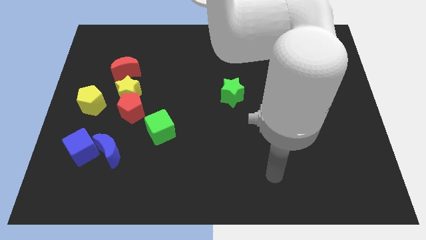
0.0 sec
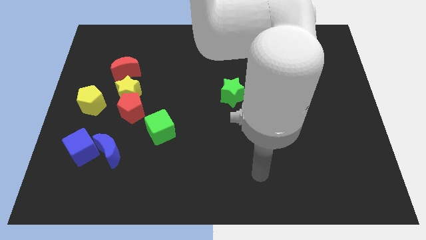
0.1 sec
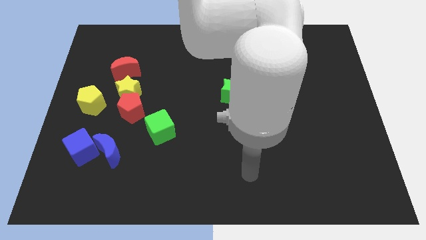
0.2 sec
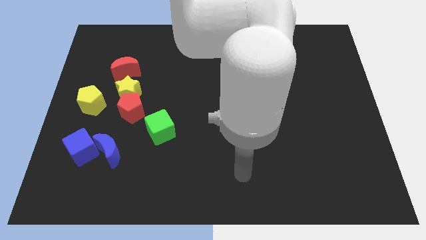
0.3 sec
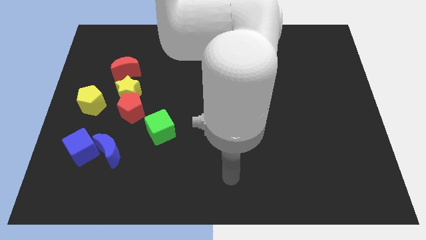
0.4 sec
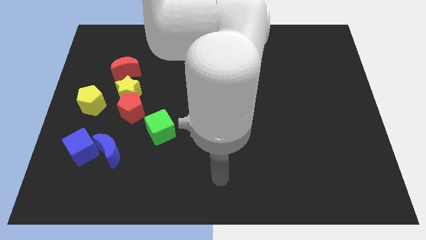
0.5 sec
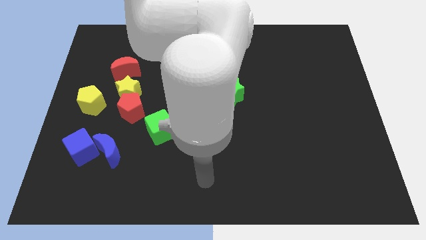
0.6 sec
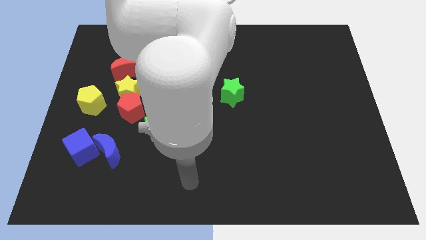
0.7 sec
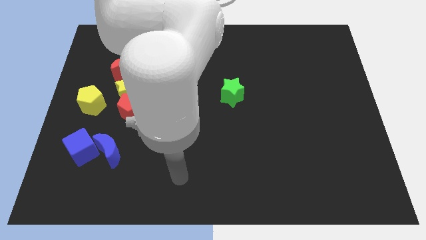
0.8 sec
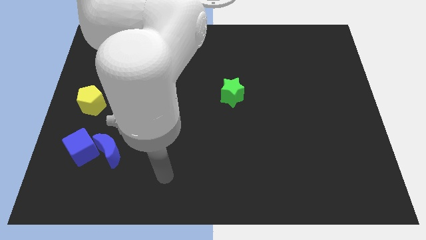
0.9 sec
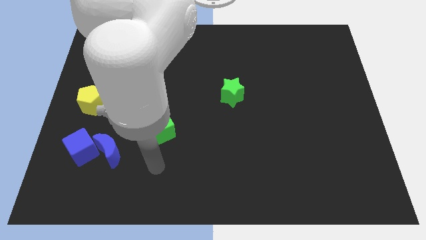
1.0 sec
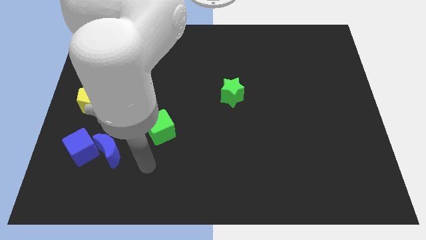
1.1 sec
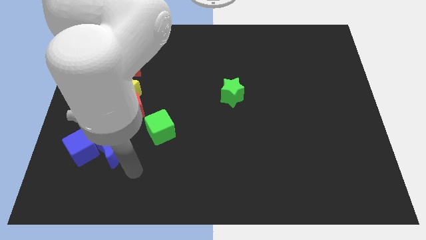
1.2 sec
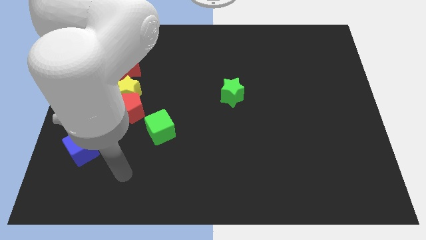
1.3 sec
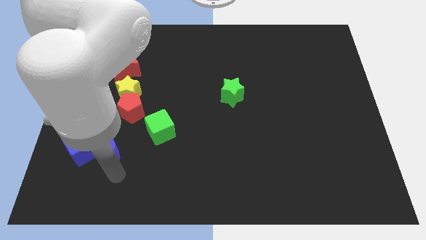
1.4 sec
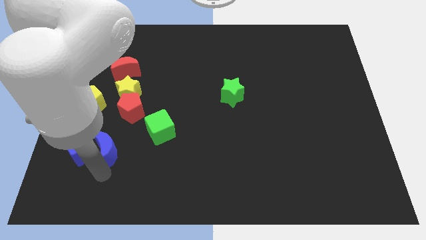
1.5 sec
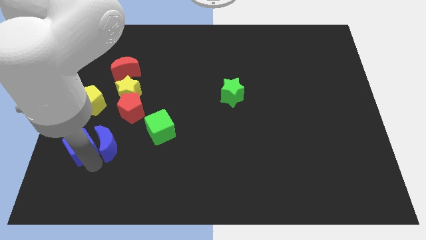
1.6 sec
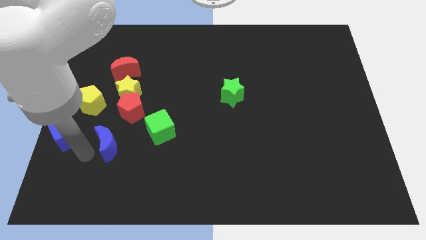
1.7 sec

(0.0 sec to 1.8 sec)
move the blue moon away from the blue cube

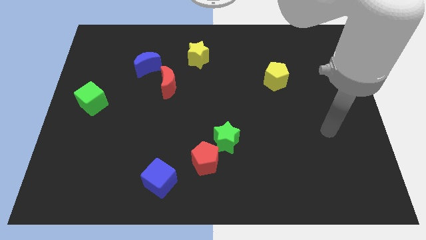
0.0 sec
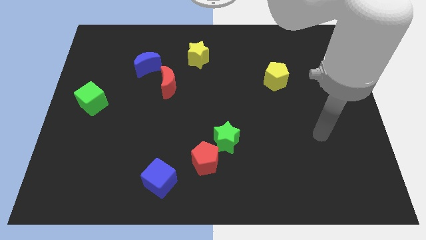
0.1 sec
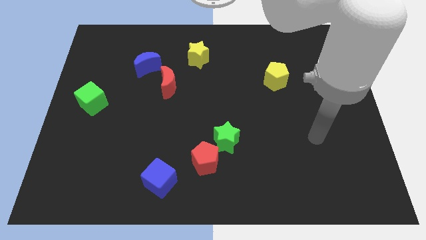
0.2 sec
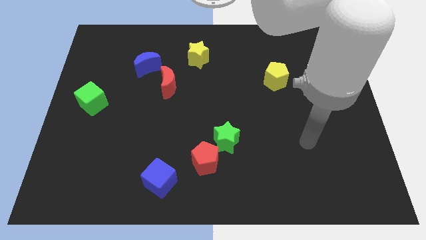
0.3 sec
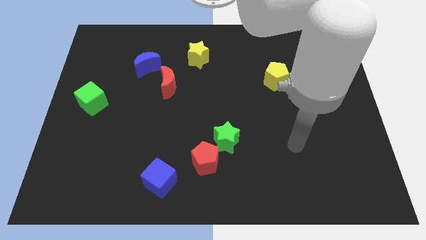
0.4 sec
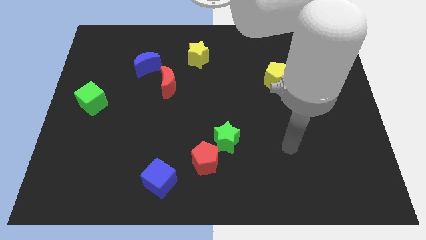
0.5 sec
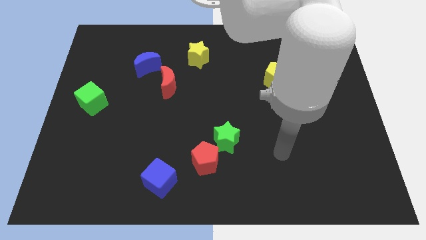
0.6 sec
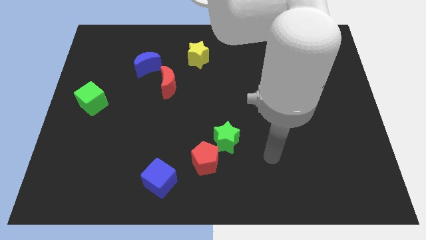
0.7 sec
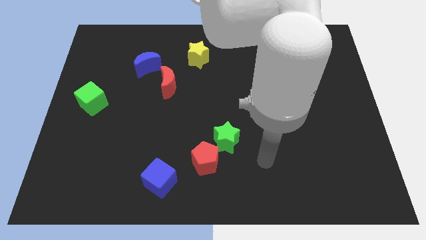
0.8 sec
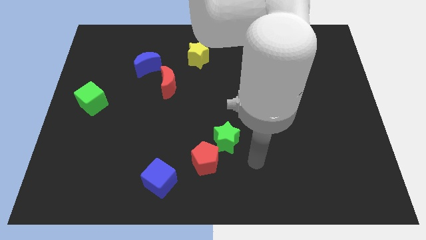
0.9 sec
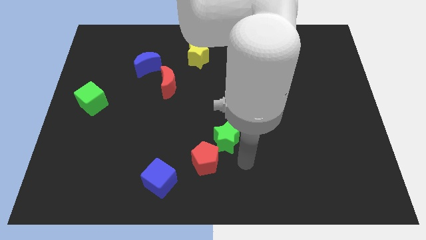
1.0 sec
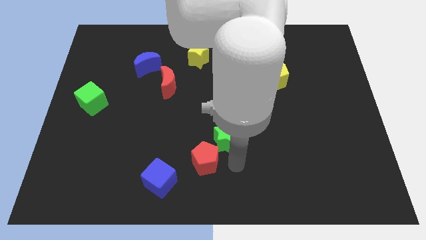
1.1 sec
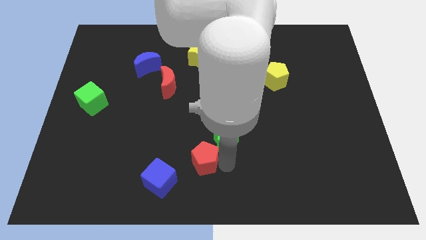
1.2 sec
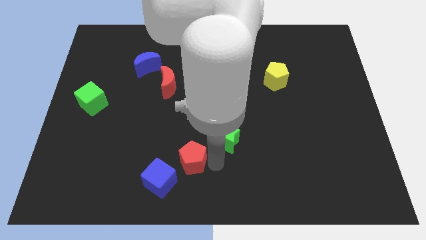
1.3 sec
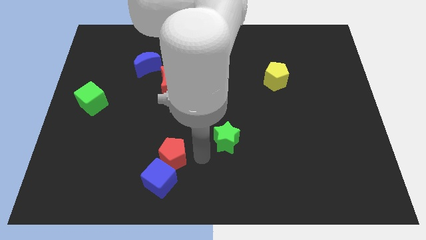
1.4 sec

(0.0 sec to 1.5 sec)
pull the green star apart from the red pentagon

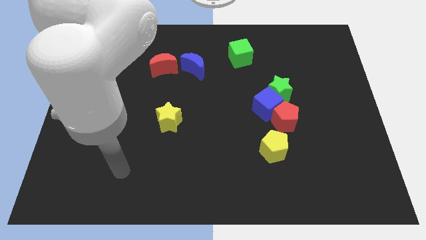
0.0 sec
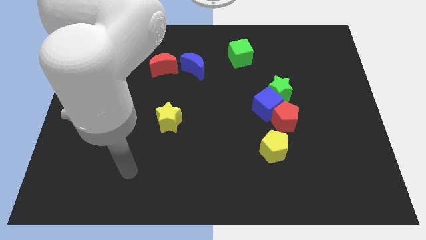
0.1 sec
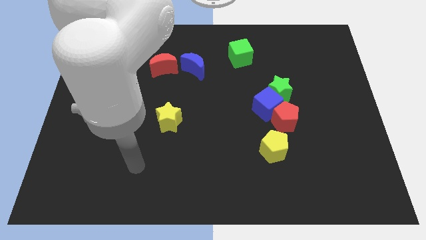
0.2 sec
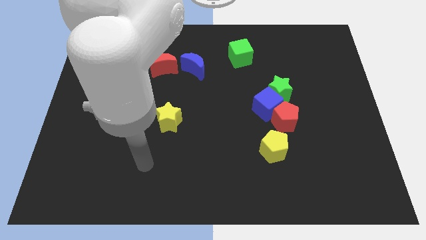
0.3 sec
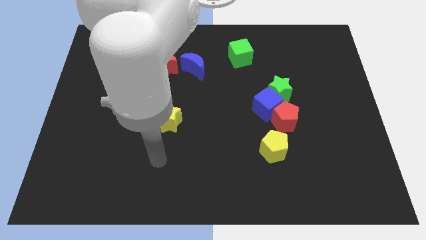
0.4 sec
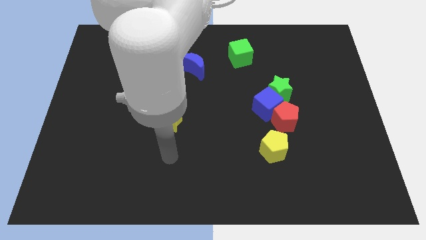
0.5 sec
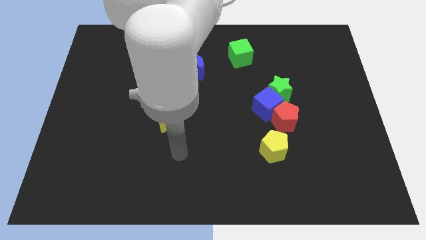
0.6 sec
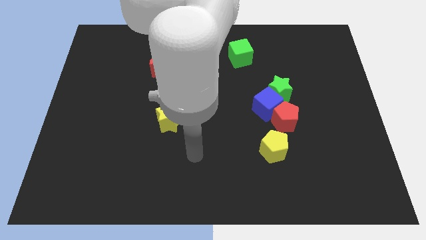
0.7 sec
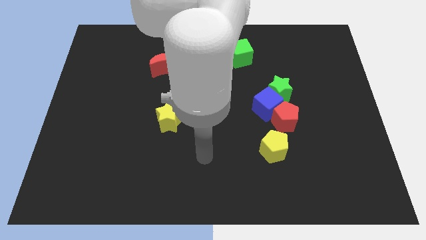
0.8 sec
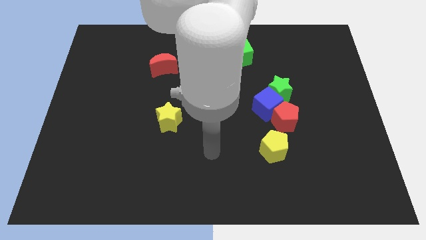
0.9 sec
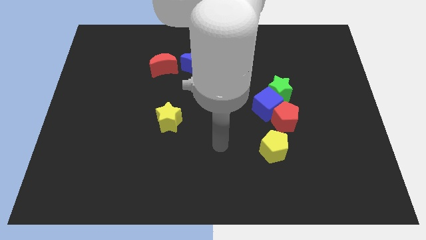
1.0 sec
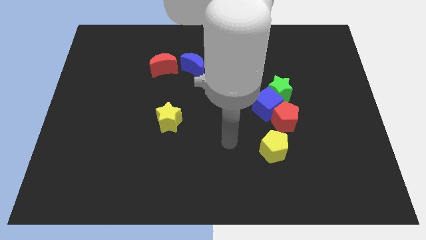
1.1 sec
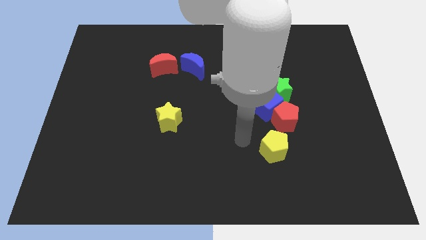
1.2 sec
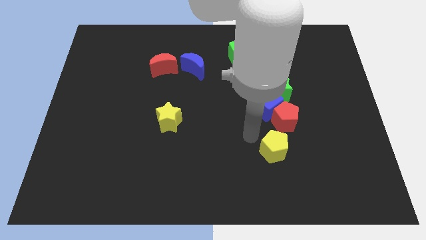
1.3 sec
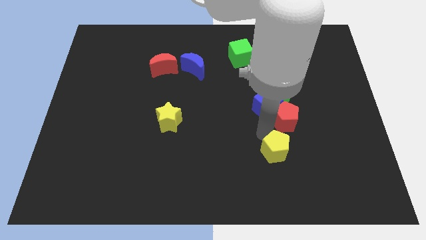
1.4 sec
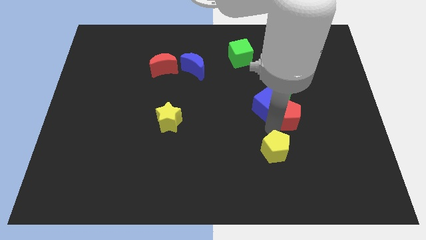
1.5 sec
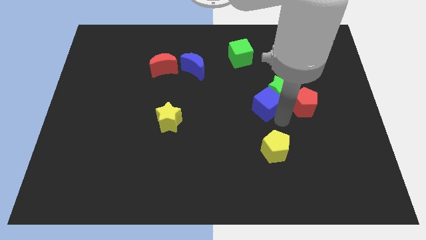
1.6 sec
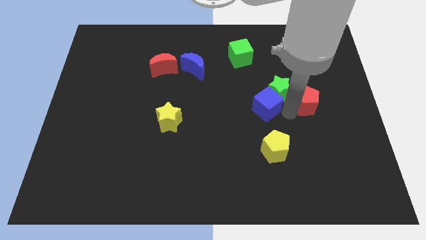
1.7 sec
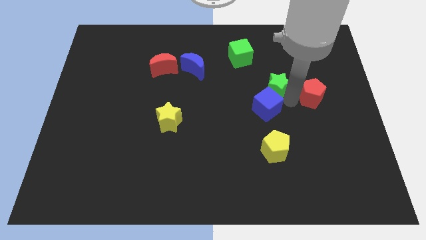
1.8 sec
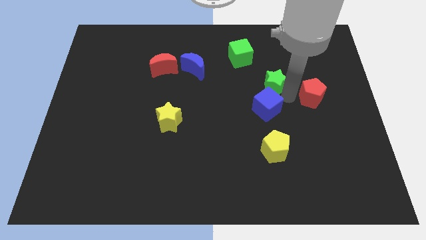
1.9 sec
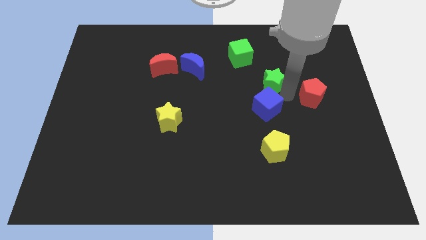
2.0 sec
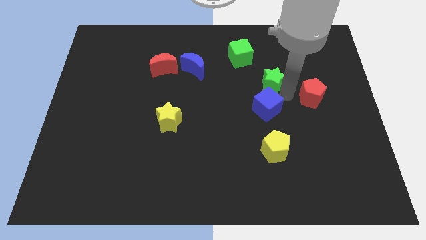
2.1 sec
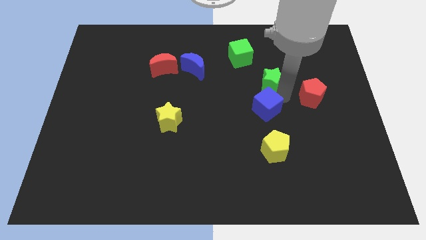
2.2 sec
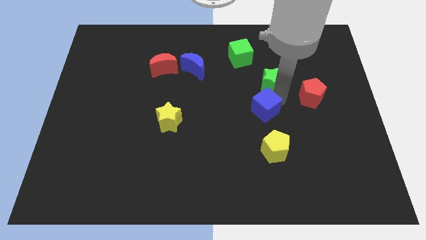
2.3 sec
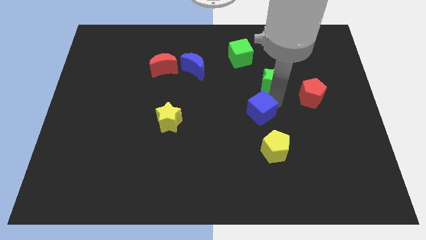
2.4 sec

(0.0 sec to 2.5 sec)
separate the blue cube from the red pentagon and green star

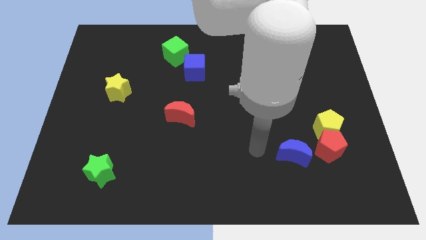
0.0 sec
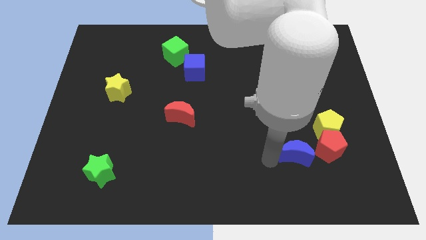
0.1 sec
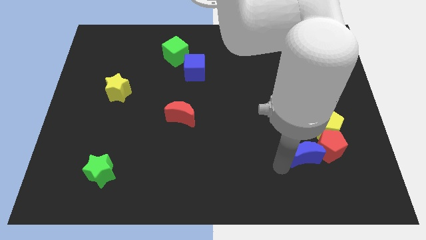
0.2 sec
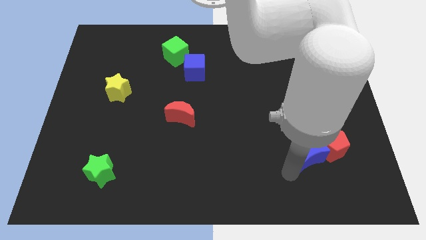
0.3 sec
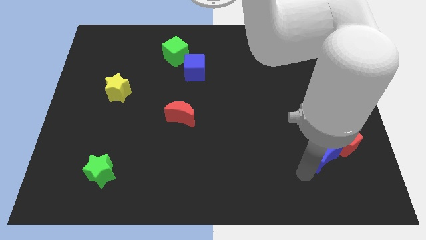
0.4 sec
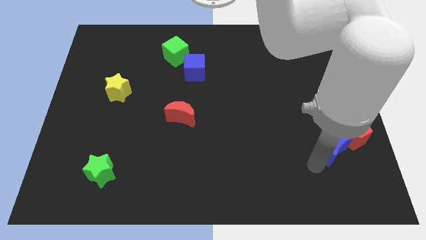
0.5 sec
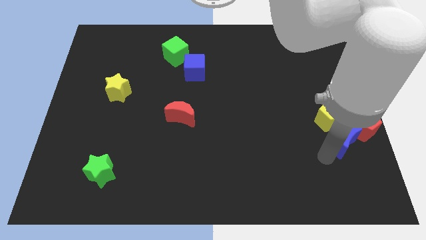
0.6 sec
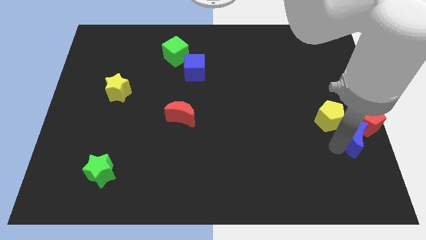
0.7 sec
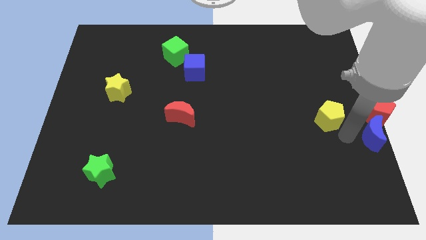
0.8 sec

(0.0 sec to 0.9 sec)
pull the yellow pentagon apart from the red pentagon

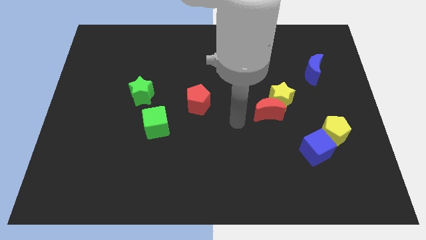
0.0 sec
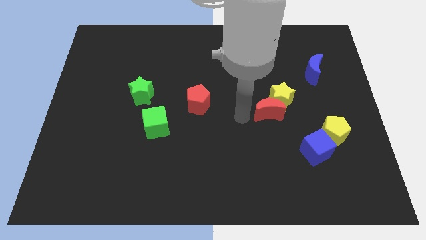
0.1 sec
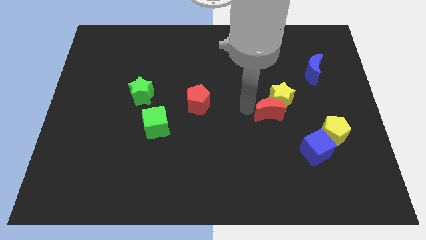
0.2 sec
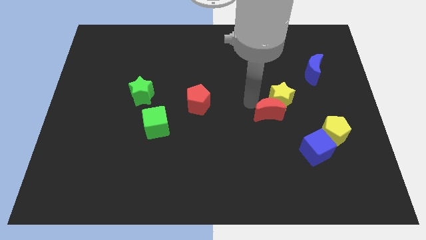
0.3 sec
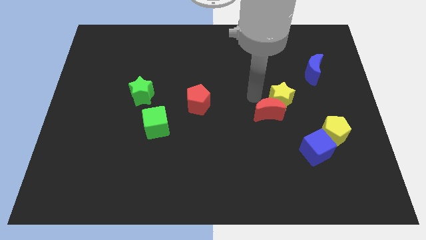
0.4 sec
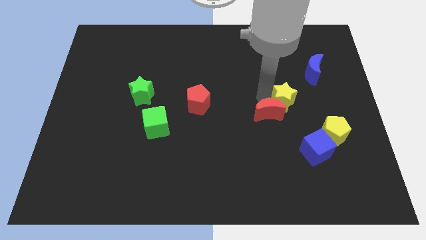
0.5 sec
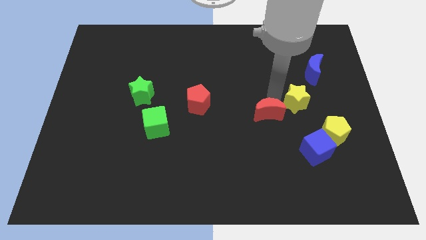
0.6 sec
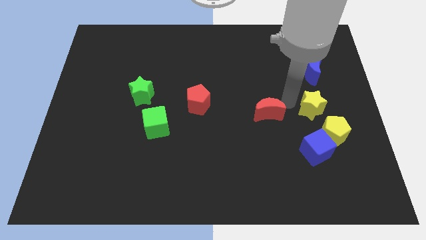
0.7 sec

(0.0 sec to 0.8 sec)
pull the red moon apart from the yellow star

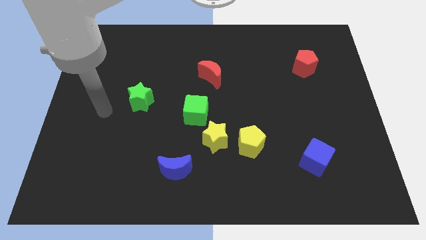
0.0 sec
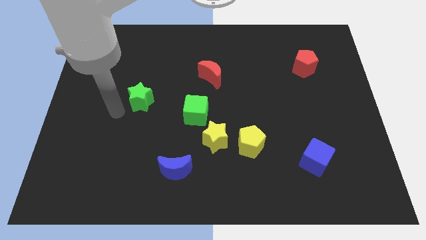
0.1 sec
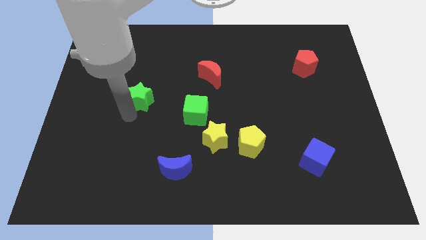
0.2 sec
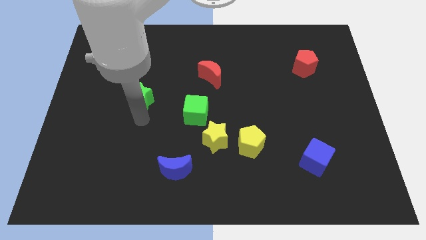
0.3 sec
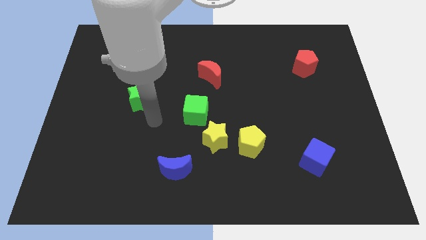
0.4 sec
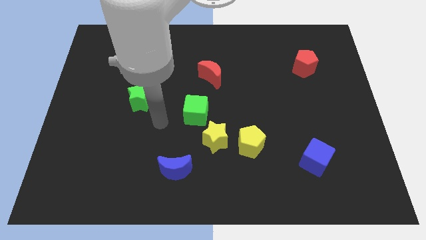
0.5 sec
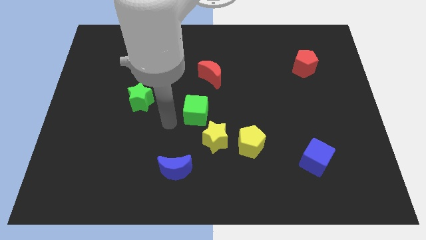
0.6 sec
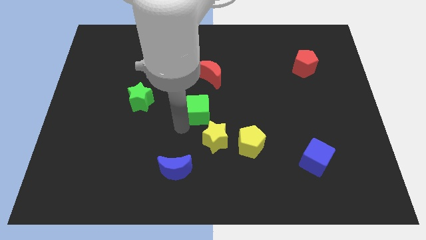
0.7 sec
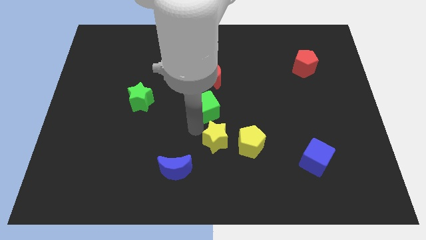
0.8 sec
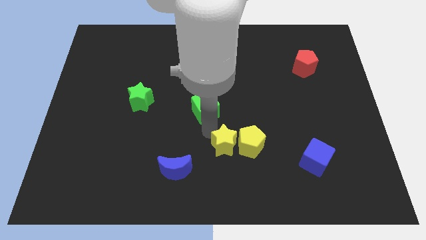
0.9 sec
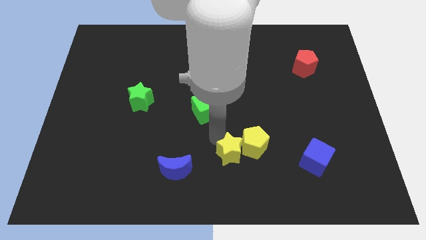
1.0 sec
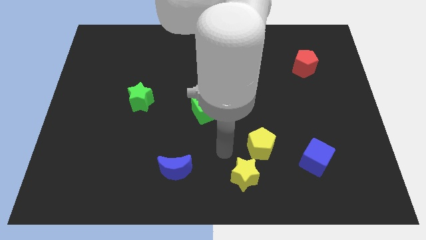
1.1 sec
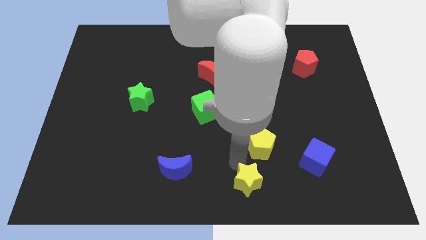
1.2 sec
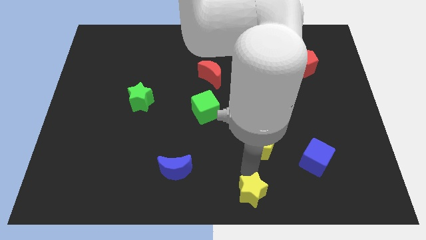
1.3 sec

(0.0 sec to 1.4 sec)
pull the yellow pentagon apart from the yellow star

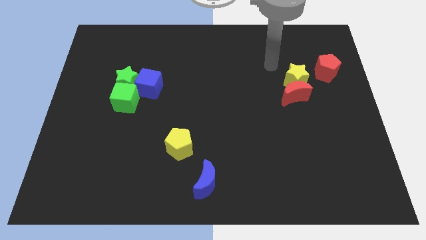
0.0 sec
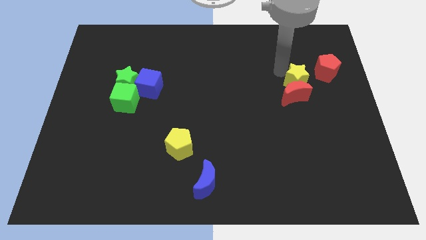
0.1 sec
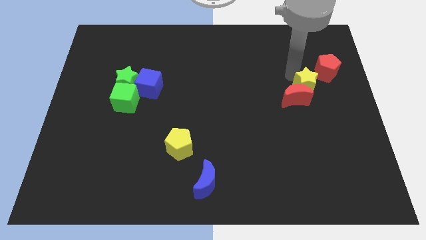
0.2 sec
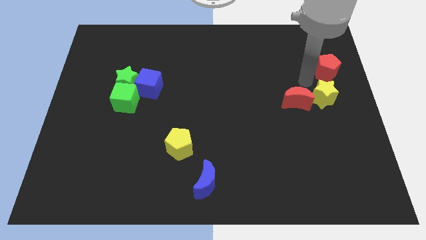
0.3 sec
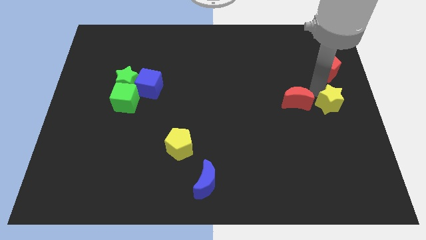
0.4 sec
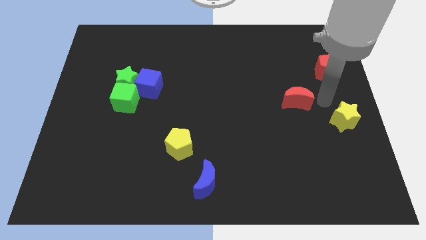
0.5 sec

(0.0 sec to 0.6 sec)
move the red moon away from the yellow star
